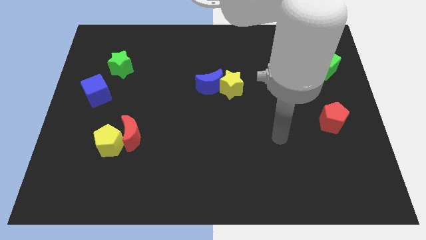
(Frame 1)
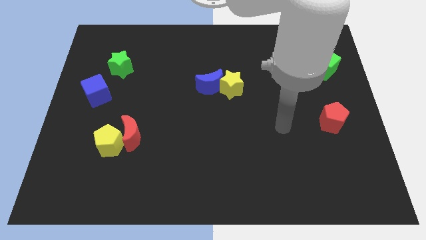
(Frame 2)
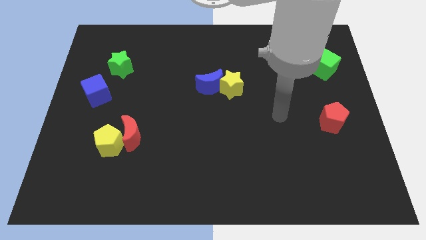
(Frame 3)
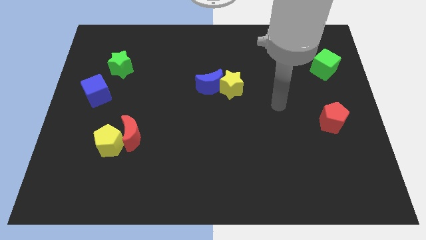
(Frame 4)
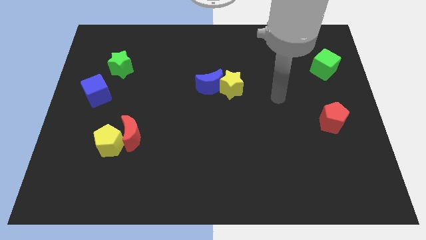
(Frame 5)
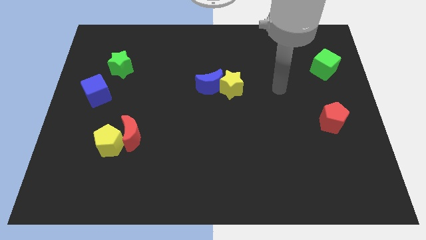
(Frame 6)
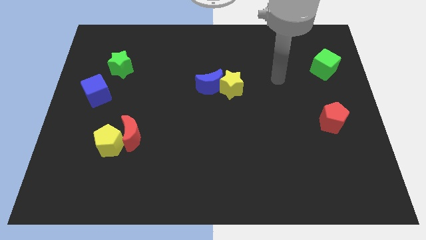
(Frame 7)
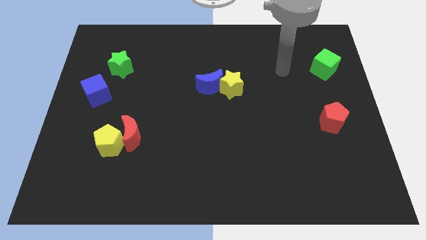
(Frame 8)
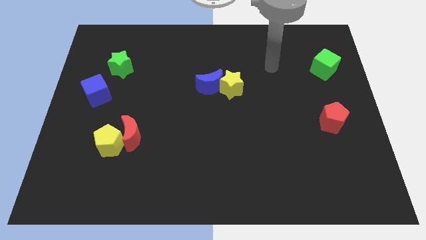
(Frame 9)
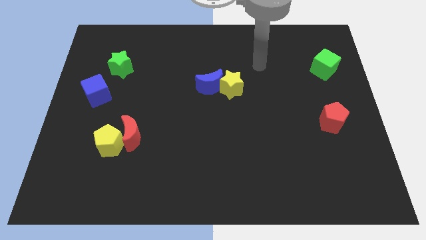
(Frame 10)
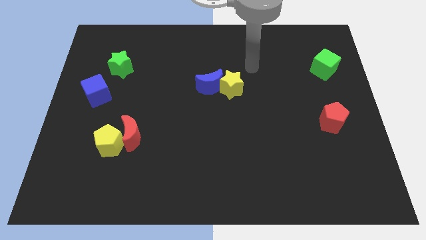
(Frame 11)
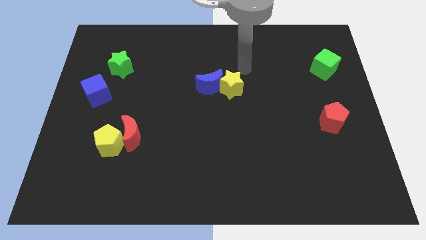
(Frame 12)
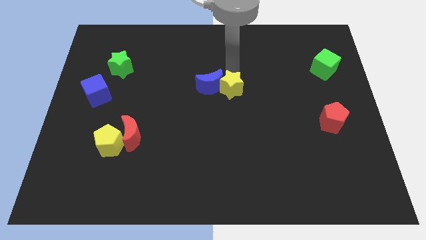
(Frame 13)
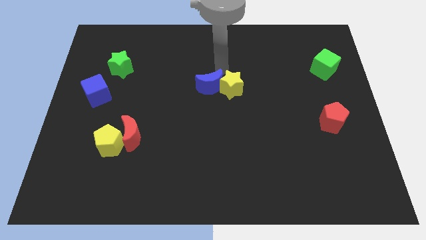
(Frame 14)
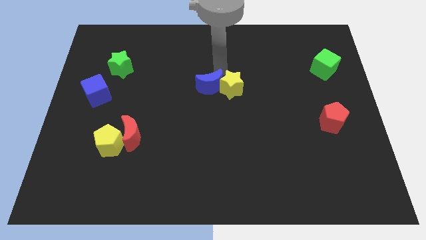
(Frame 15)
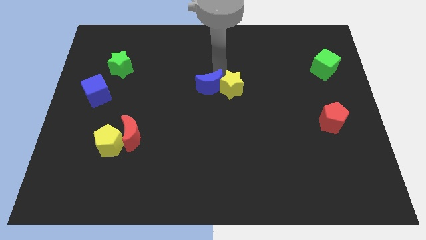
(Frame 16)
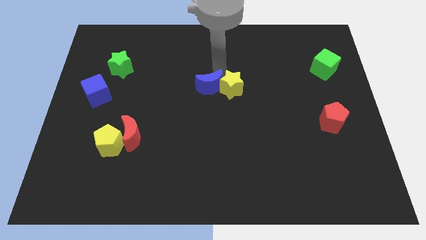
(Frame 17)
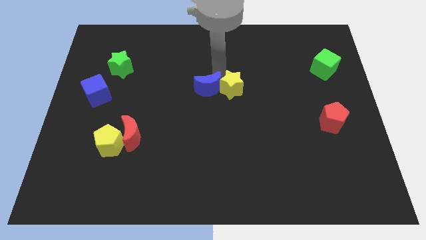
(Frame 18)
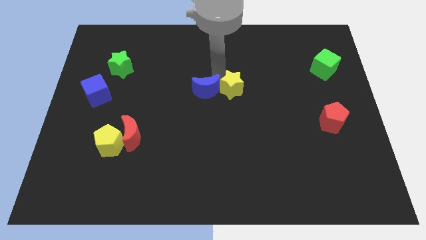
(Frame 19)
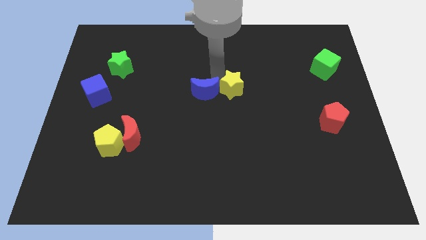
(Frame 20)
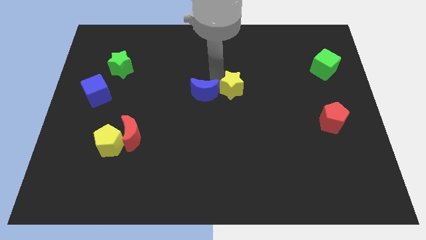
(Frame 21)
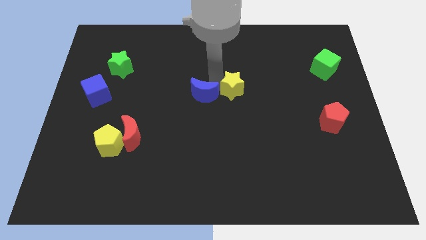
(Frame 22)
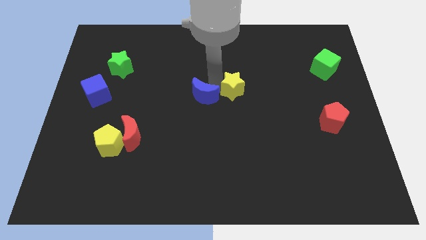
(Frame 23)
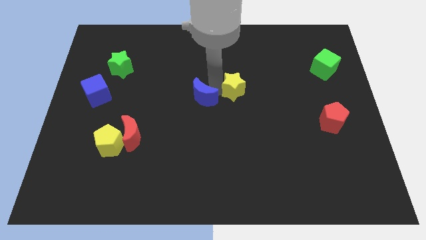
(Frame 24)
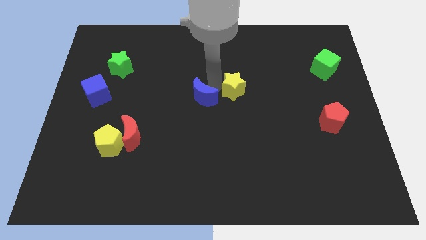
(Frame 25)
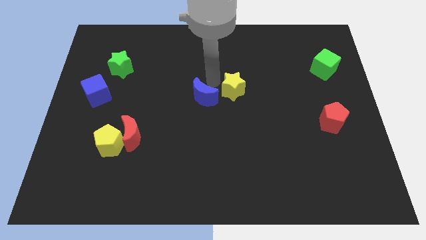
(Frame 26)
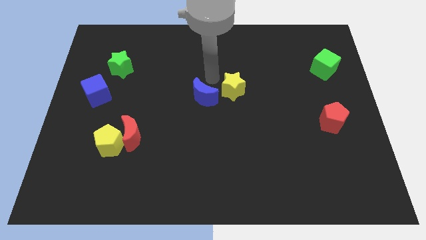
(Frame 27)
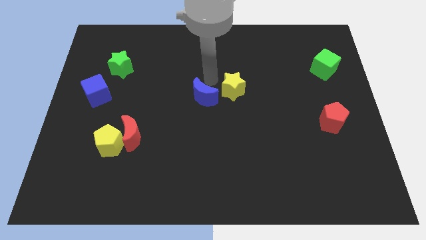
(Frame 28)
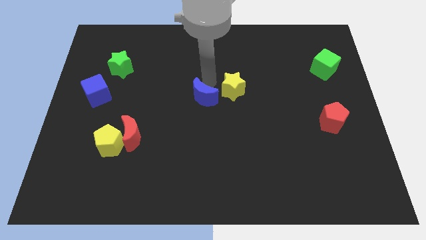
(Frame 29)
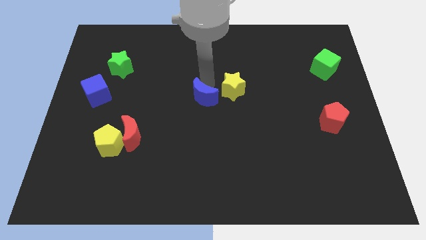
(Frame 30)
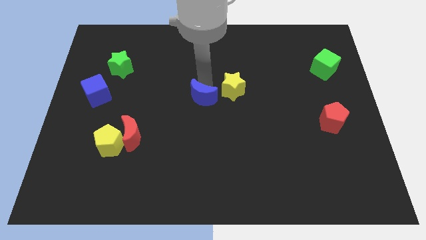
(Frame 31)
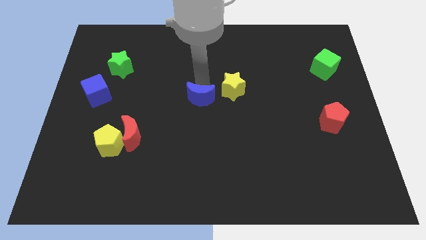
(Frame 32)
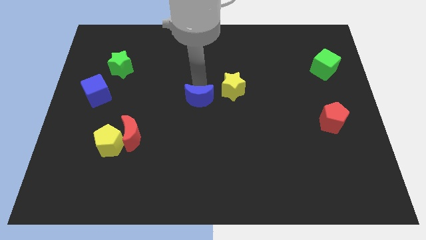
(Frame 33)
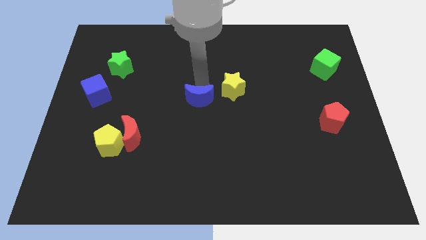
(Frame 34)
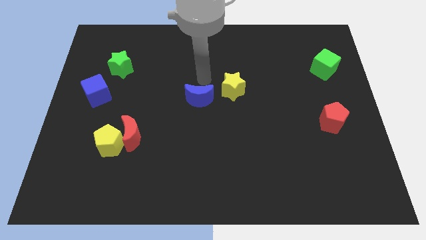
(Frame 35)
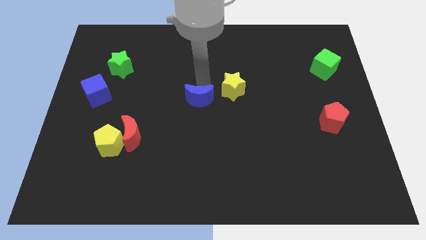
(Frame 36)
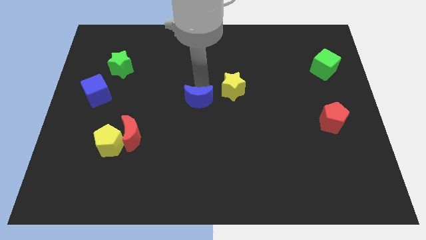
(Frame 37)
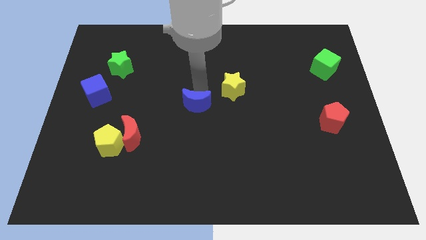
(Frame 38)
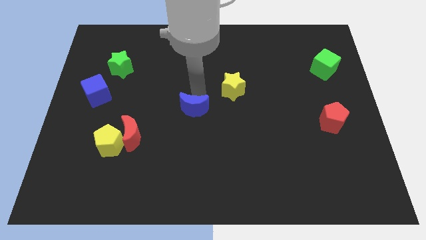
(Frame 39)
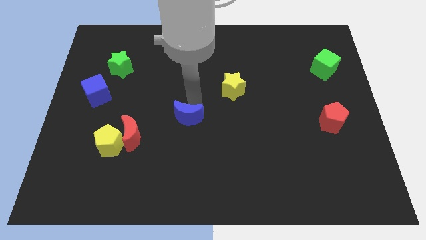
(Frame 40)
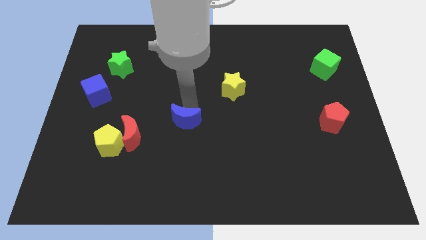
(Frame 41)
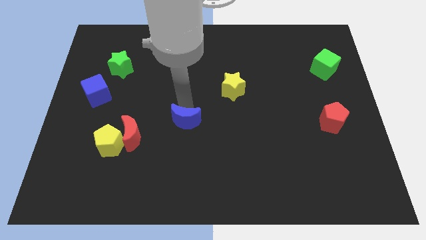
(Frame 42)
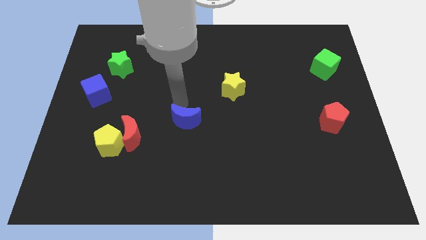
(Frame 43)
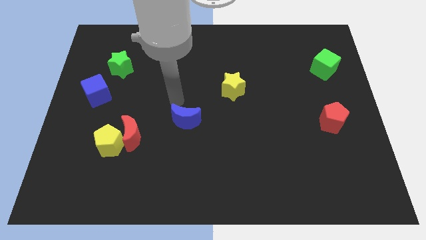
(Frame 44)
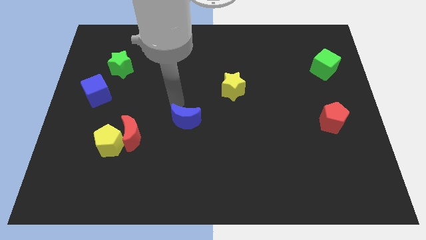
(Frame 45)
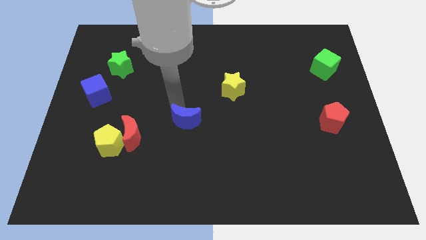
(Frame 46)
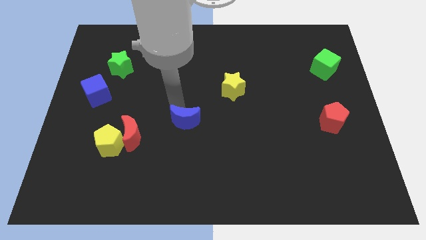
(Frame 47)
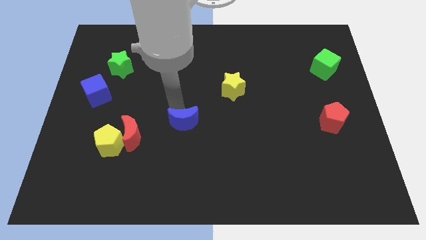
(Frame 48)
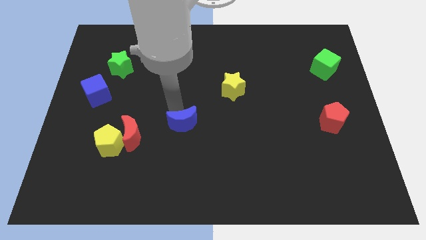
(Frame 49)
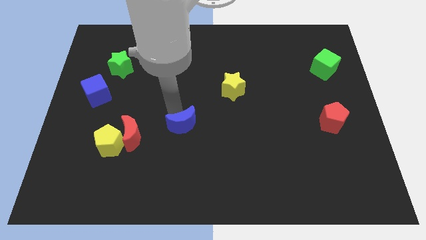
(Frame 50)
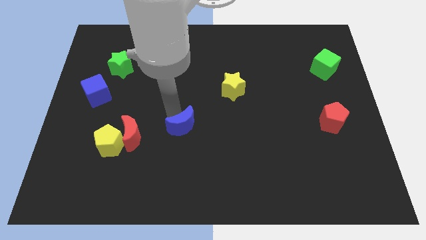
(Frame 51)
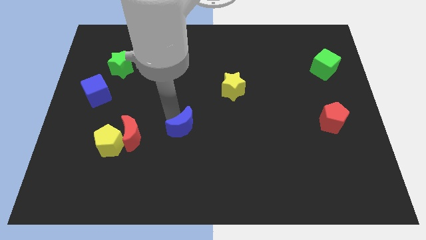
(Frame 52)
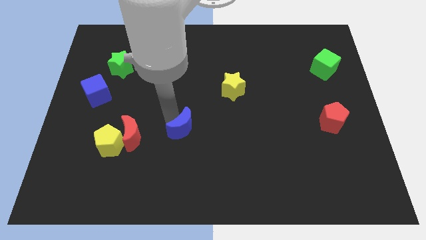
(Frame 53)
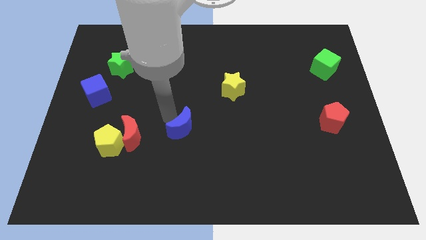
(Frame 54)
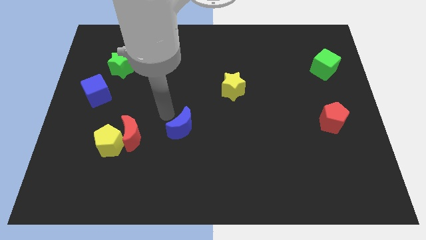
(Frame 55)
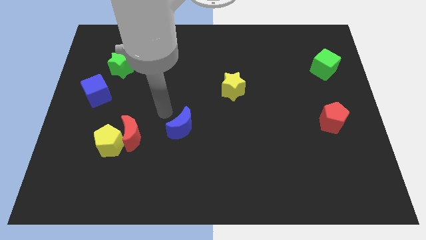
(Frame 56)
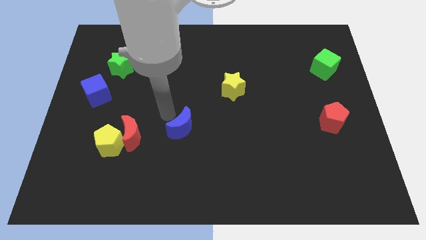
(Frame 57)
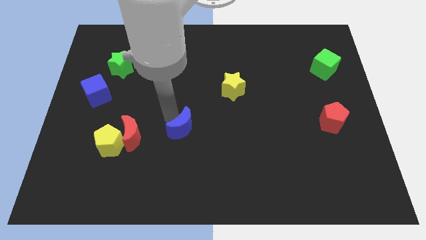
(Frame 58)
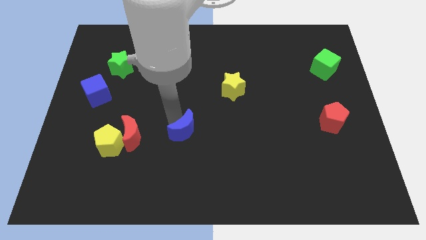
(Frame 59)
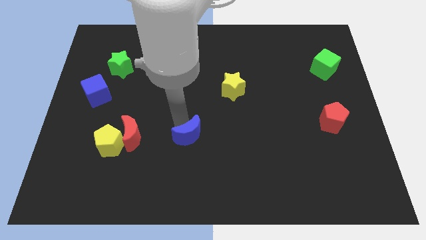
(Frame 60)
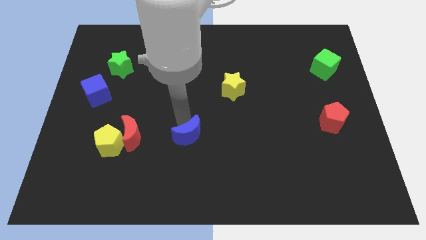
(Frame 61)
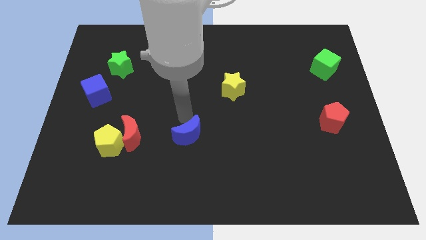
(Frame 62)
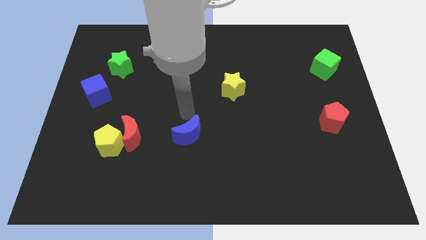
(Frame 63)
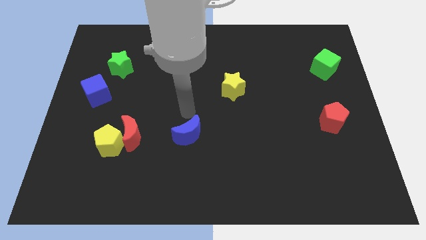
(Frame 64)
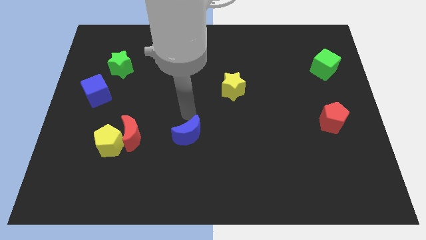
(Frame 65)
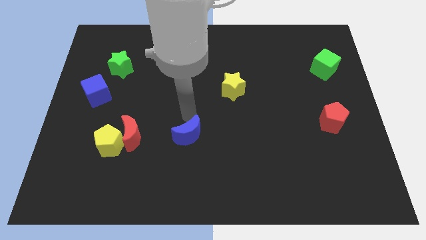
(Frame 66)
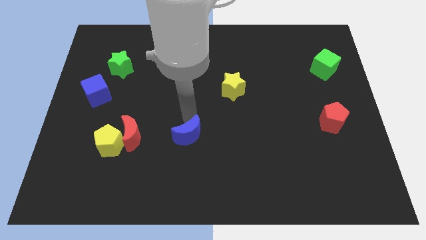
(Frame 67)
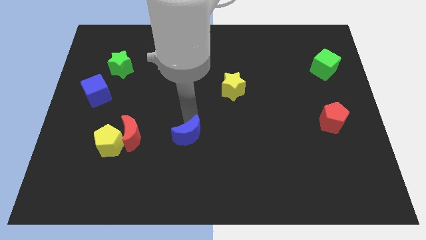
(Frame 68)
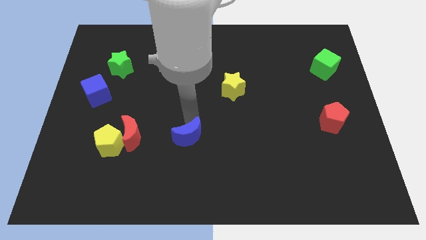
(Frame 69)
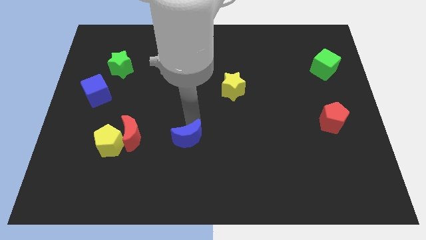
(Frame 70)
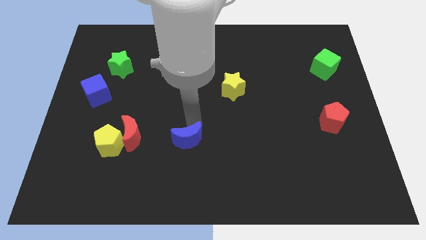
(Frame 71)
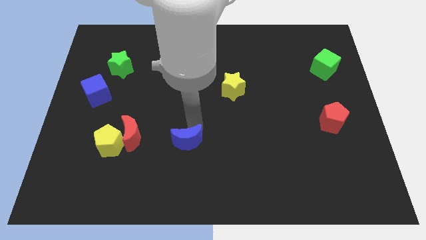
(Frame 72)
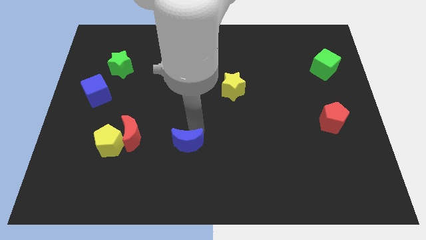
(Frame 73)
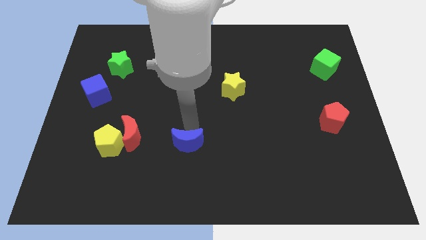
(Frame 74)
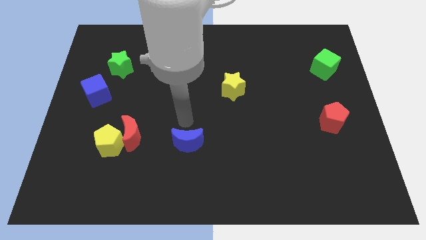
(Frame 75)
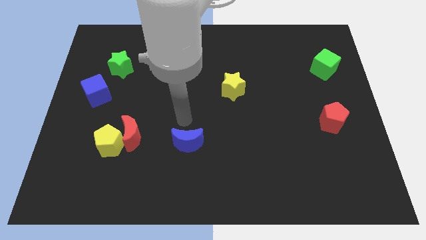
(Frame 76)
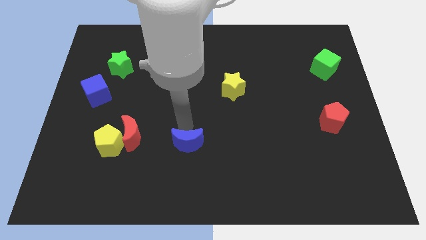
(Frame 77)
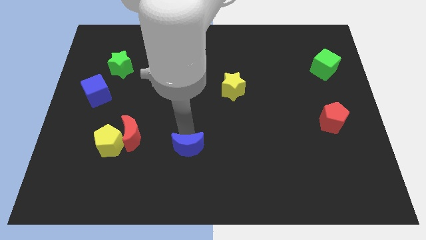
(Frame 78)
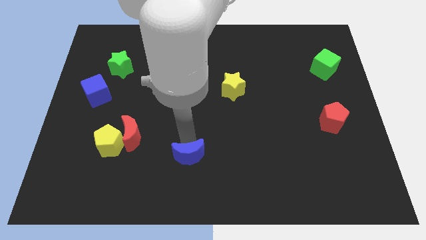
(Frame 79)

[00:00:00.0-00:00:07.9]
move the blue moon to the bottom
